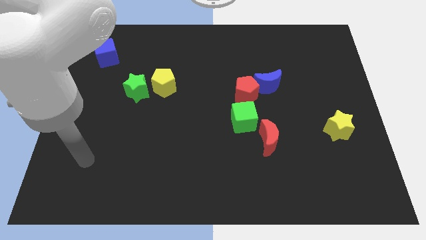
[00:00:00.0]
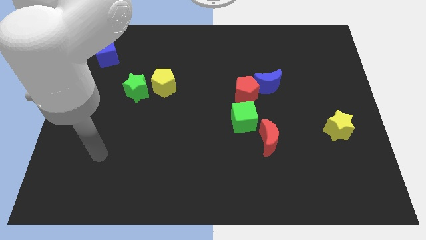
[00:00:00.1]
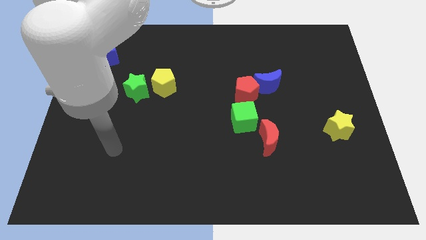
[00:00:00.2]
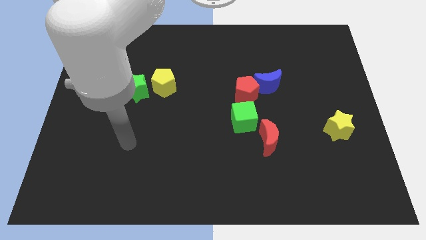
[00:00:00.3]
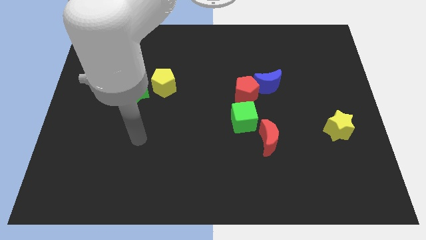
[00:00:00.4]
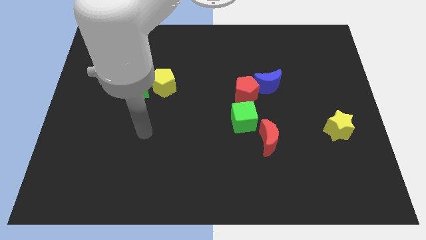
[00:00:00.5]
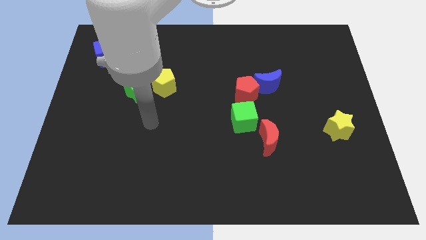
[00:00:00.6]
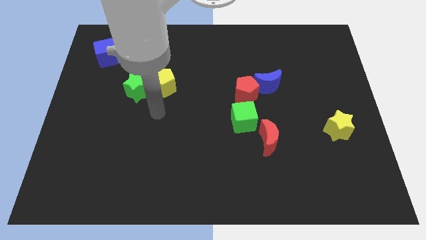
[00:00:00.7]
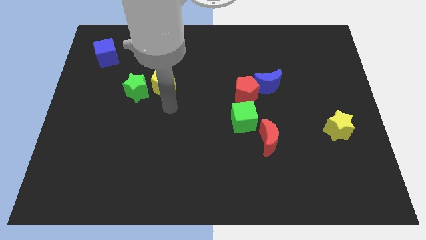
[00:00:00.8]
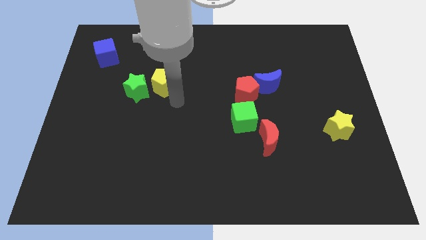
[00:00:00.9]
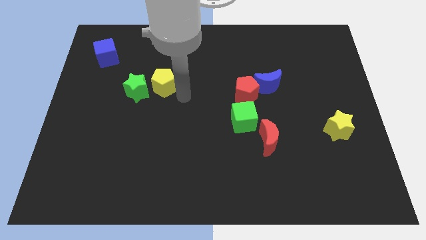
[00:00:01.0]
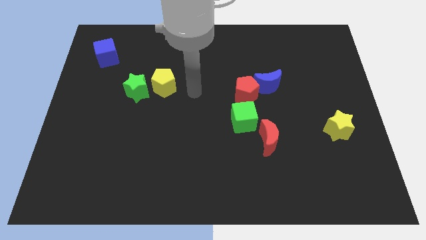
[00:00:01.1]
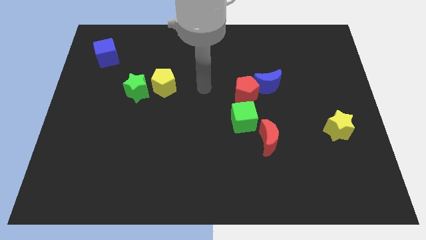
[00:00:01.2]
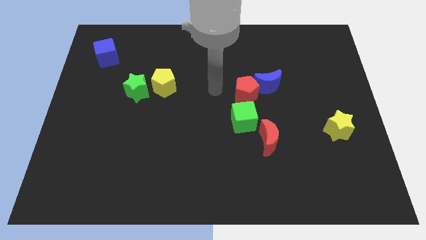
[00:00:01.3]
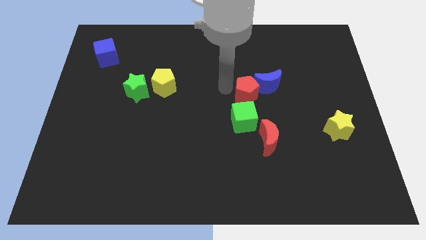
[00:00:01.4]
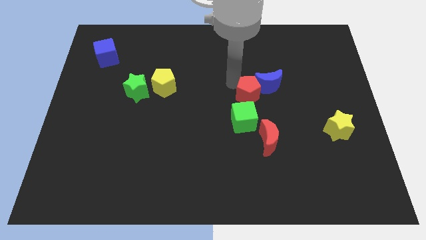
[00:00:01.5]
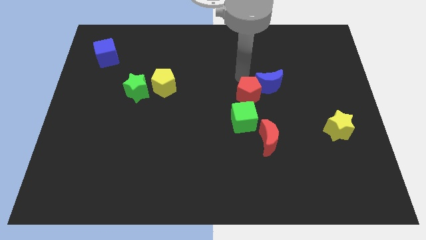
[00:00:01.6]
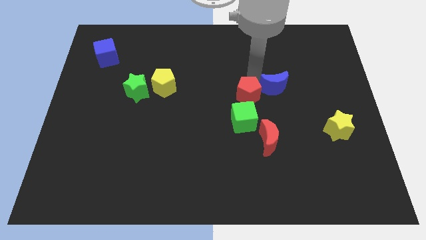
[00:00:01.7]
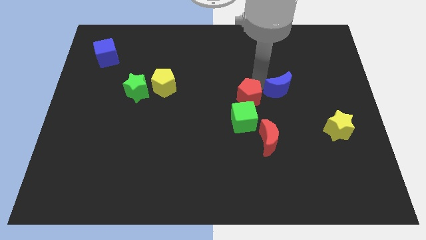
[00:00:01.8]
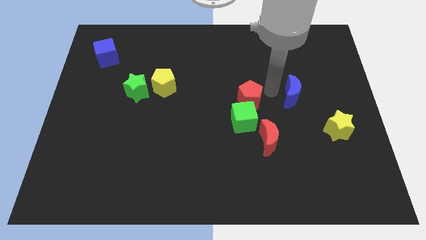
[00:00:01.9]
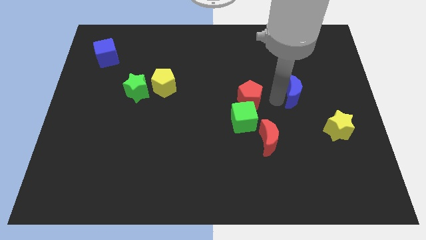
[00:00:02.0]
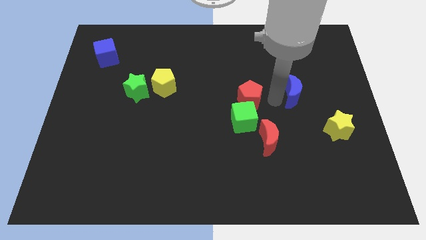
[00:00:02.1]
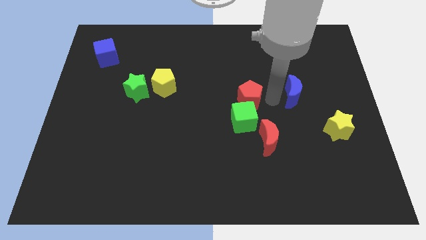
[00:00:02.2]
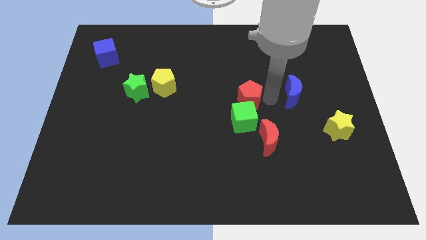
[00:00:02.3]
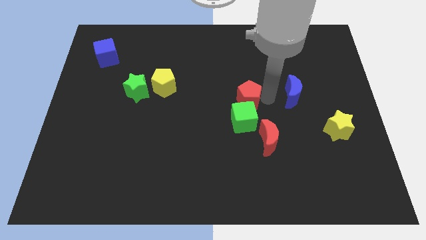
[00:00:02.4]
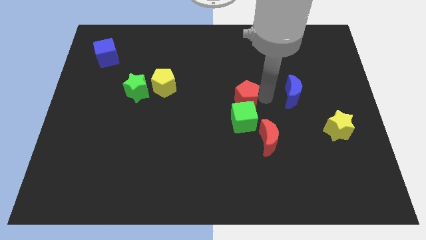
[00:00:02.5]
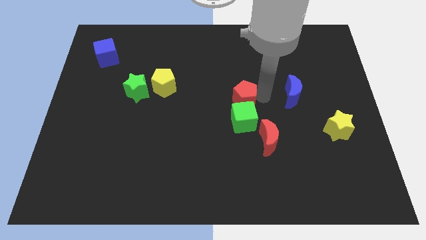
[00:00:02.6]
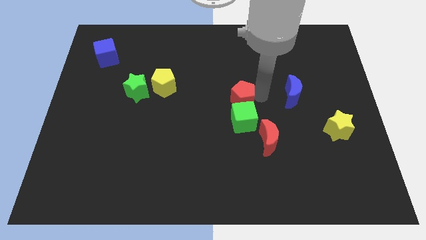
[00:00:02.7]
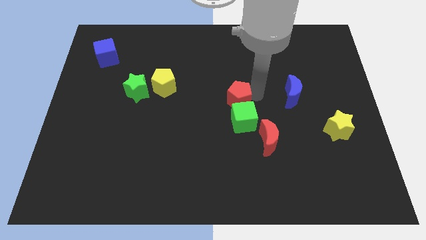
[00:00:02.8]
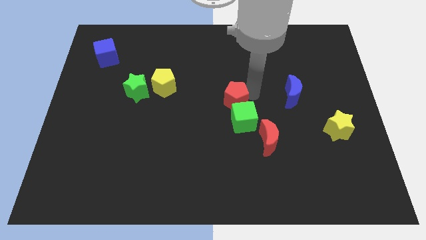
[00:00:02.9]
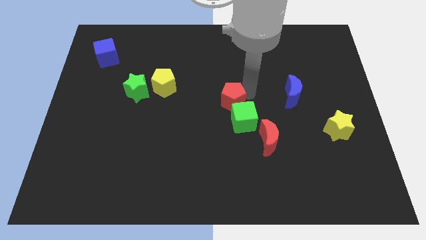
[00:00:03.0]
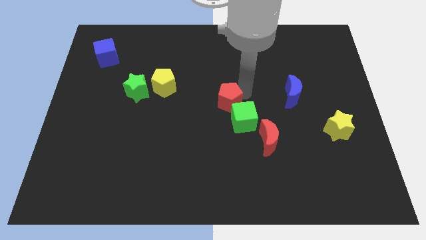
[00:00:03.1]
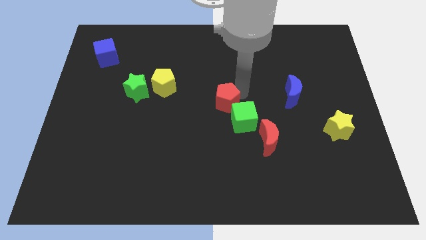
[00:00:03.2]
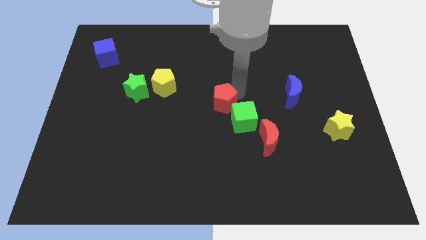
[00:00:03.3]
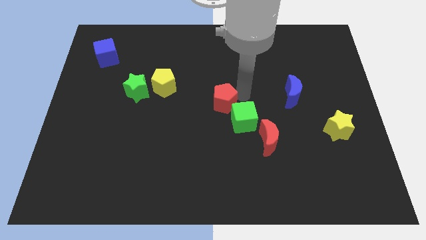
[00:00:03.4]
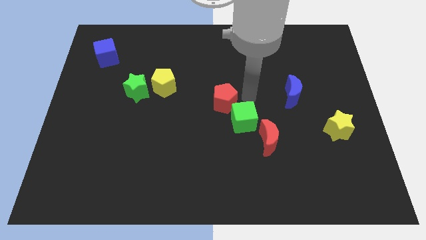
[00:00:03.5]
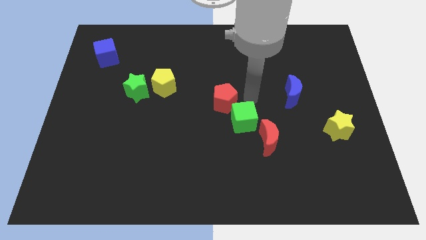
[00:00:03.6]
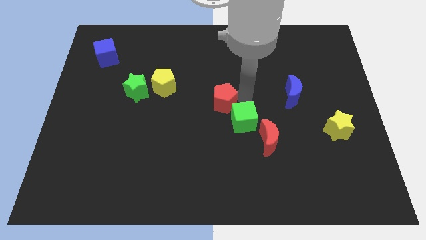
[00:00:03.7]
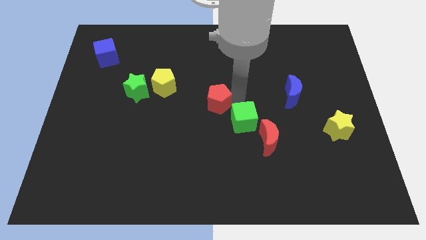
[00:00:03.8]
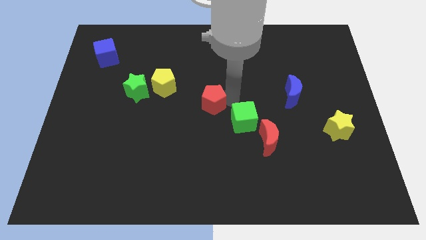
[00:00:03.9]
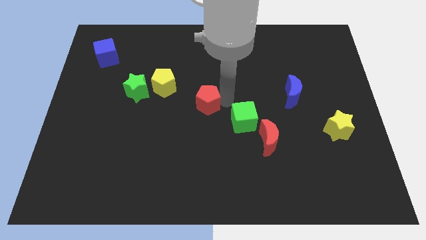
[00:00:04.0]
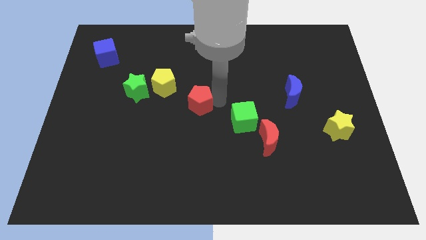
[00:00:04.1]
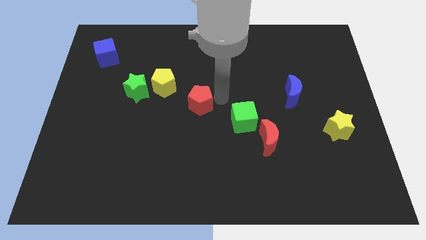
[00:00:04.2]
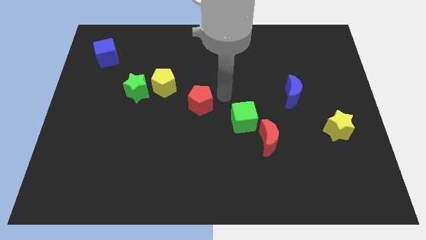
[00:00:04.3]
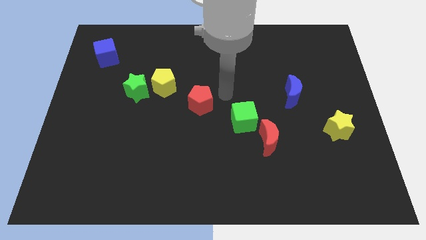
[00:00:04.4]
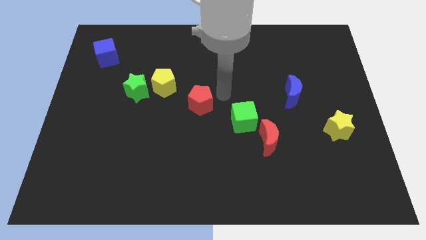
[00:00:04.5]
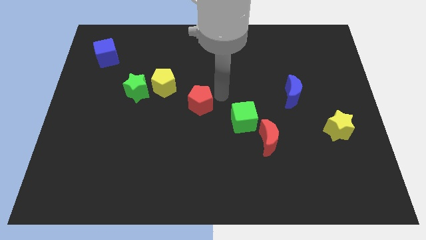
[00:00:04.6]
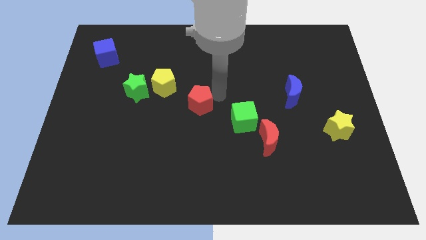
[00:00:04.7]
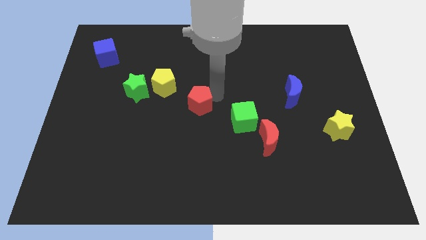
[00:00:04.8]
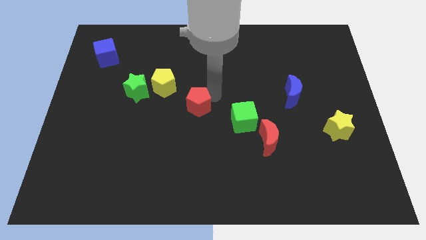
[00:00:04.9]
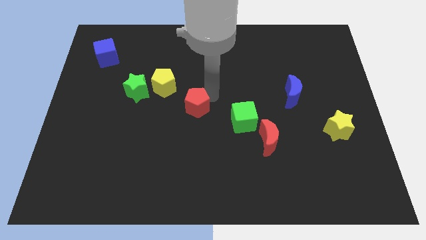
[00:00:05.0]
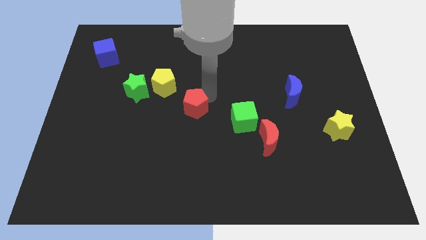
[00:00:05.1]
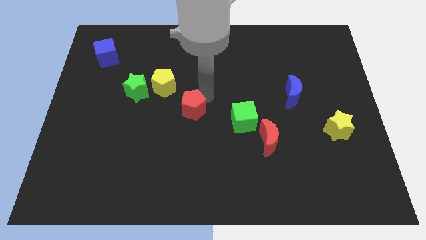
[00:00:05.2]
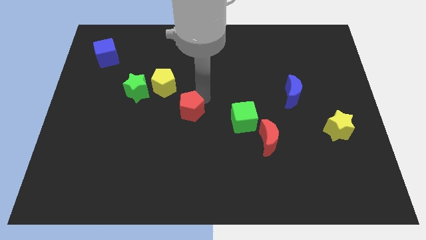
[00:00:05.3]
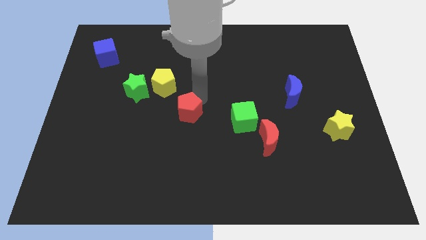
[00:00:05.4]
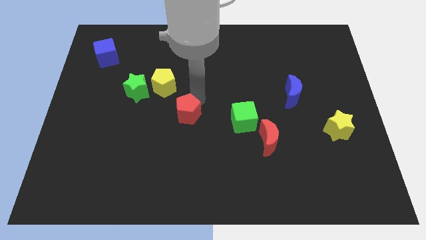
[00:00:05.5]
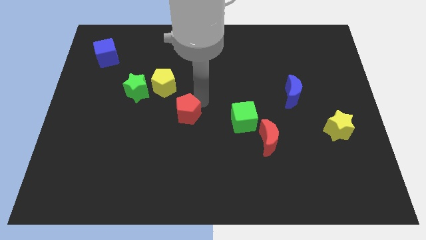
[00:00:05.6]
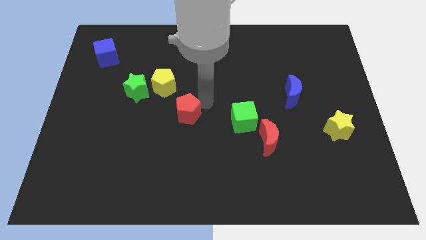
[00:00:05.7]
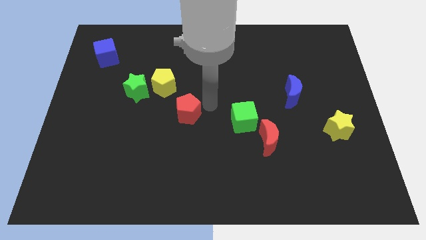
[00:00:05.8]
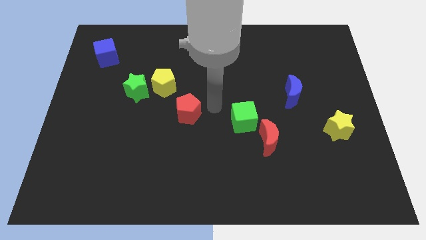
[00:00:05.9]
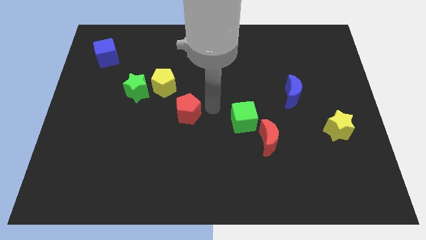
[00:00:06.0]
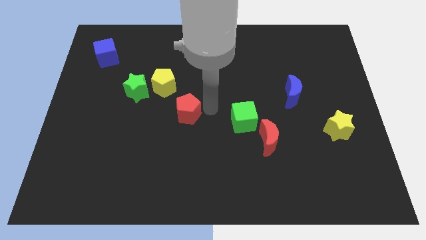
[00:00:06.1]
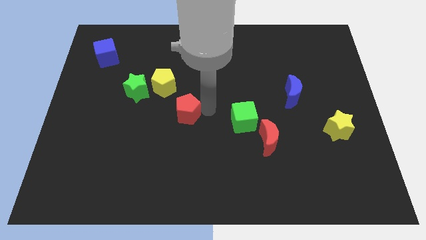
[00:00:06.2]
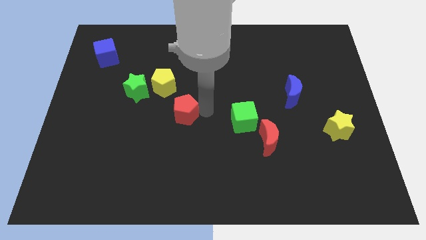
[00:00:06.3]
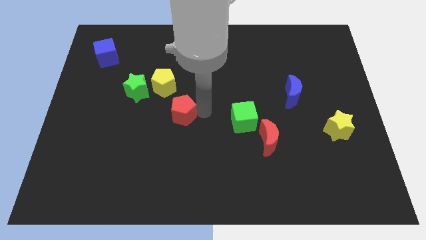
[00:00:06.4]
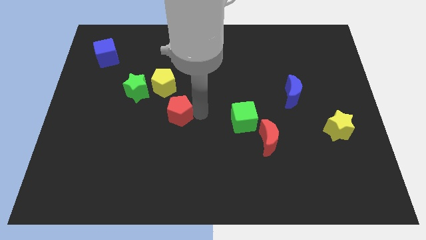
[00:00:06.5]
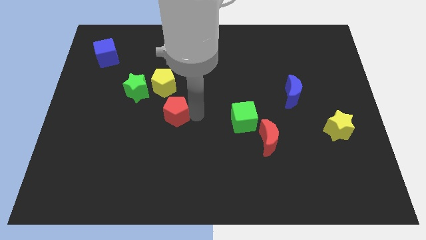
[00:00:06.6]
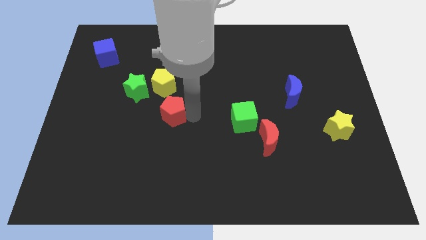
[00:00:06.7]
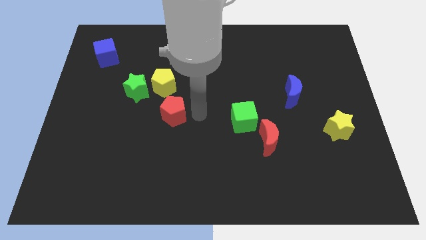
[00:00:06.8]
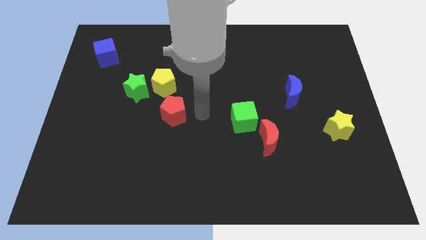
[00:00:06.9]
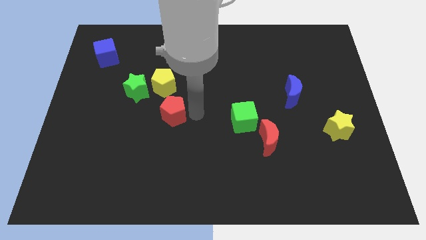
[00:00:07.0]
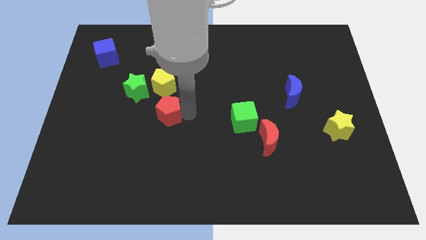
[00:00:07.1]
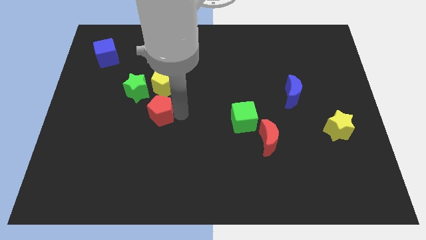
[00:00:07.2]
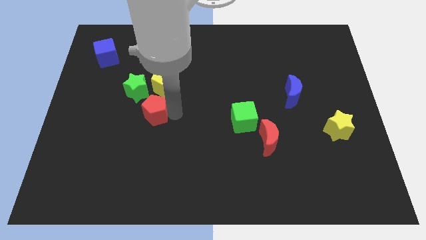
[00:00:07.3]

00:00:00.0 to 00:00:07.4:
push the red pentagon left

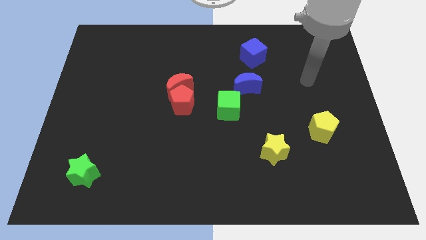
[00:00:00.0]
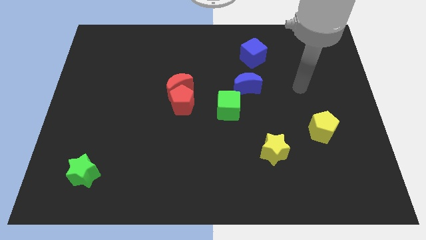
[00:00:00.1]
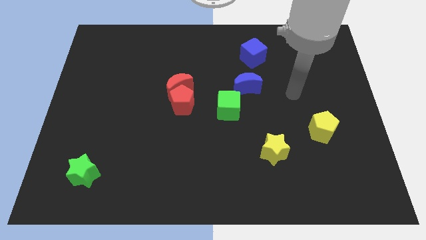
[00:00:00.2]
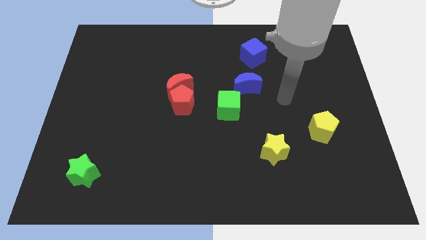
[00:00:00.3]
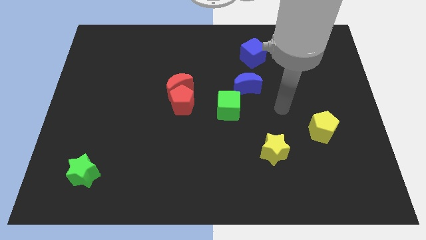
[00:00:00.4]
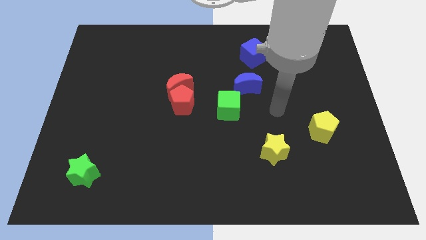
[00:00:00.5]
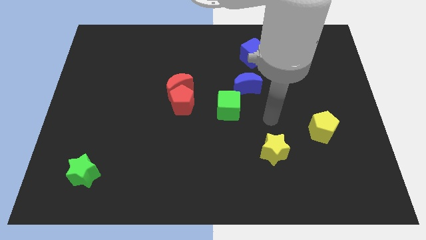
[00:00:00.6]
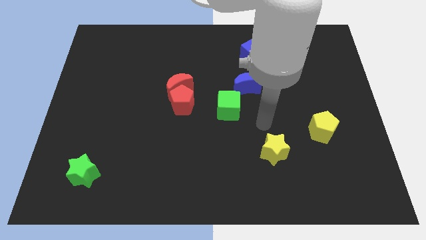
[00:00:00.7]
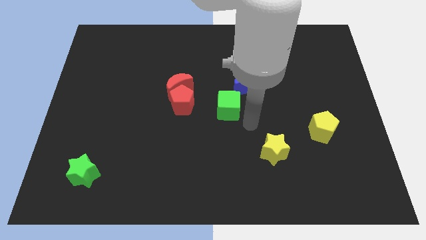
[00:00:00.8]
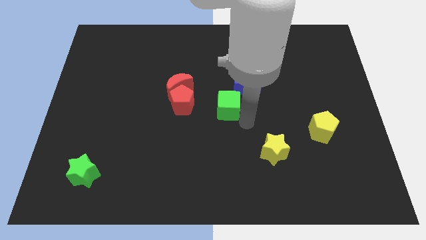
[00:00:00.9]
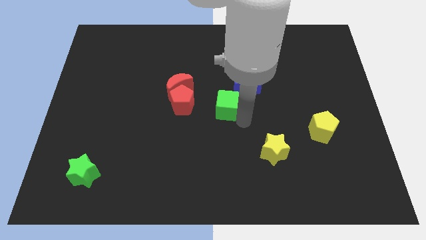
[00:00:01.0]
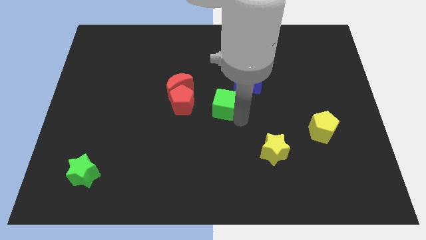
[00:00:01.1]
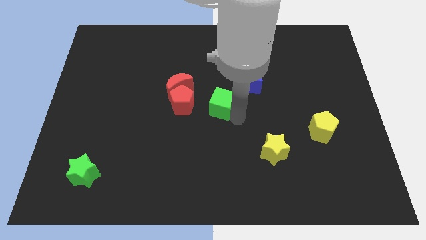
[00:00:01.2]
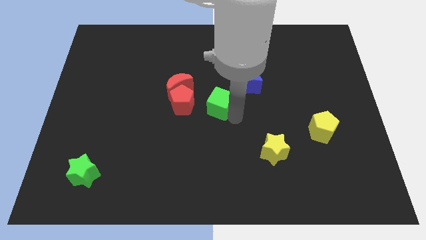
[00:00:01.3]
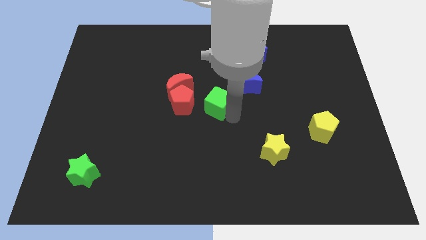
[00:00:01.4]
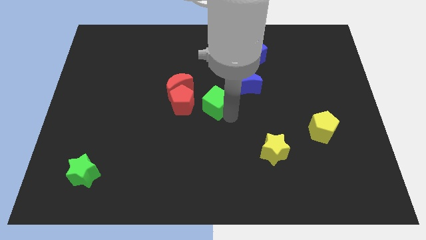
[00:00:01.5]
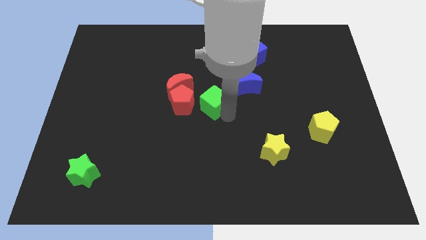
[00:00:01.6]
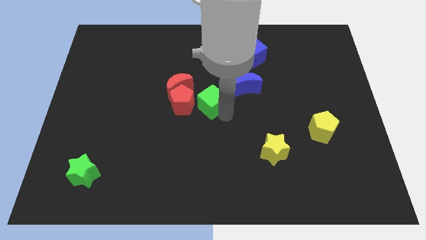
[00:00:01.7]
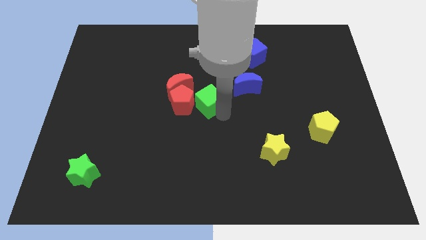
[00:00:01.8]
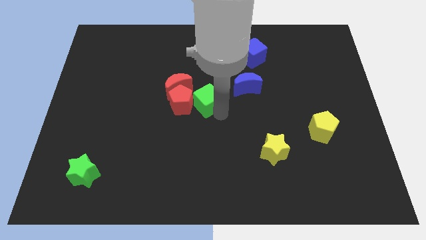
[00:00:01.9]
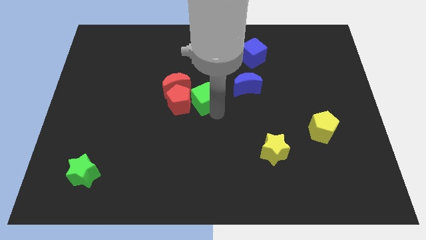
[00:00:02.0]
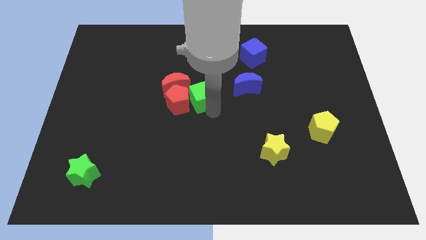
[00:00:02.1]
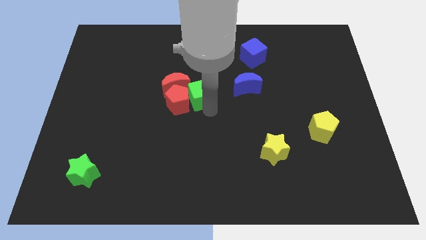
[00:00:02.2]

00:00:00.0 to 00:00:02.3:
slightly move the green cube up and left diagonally
